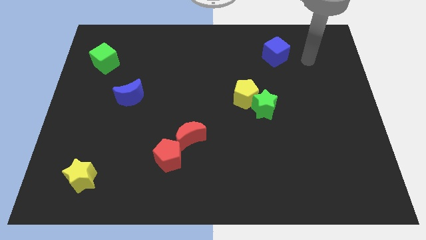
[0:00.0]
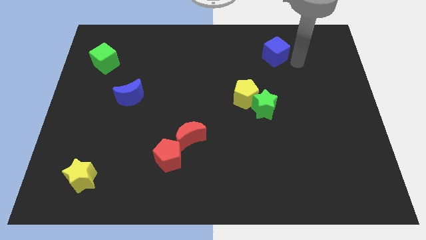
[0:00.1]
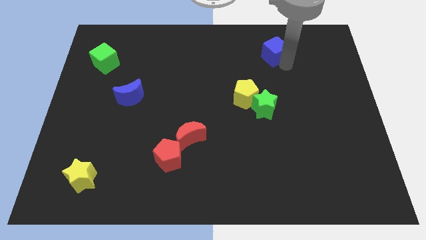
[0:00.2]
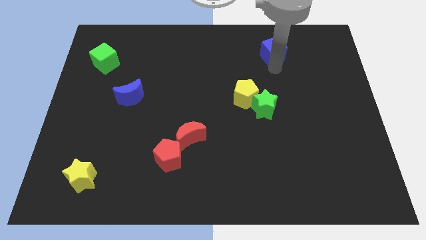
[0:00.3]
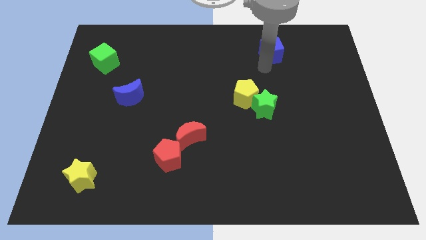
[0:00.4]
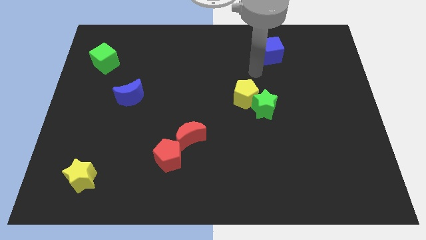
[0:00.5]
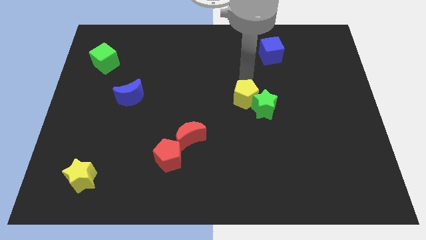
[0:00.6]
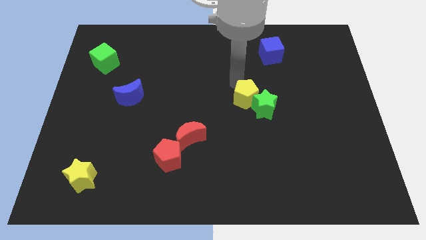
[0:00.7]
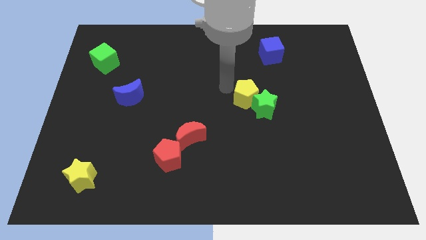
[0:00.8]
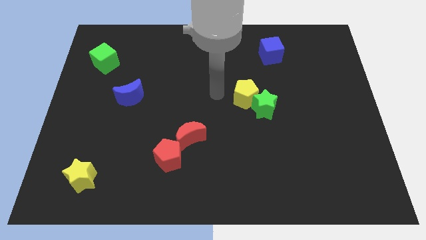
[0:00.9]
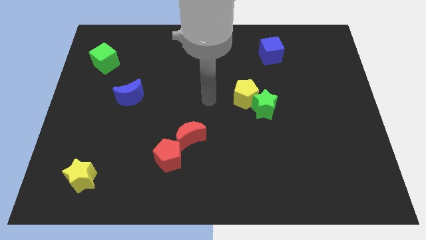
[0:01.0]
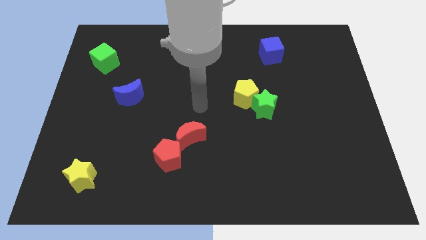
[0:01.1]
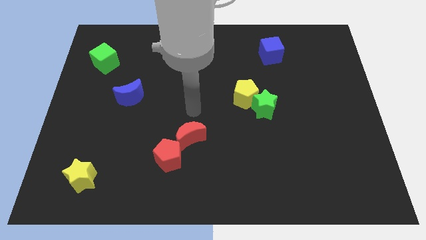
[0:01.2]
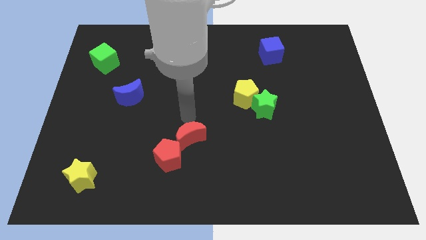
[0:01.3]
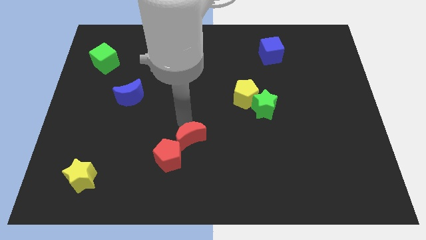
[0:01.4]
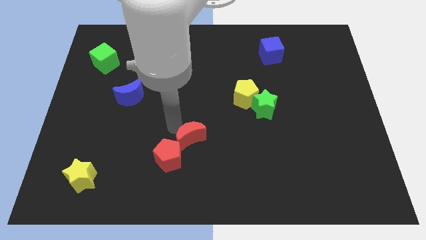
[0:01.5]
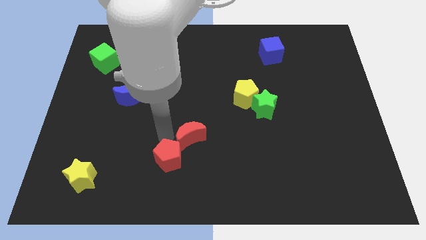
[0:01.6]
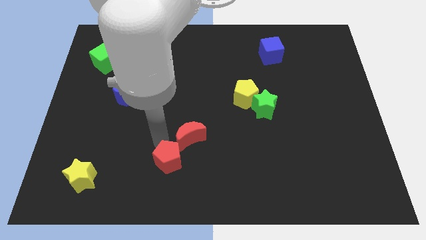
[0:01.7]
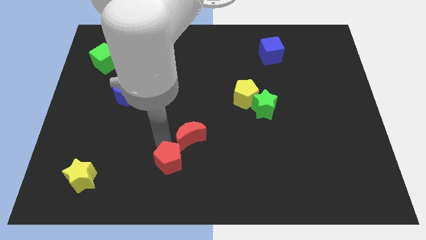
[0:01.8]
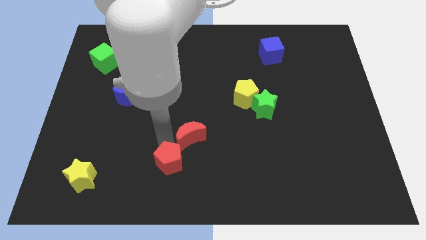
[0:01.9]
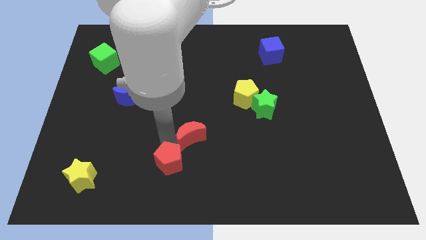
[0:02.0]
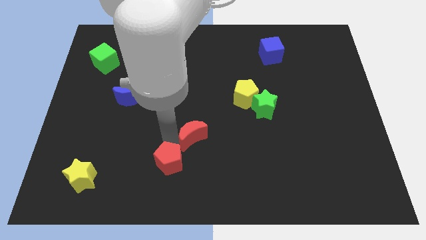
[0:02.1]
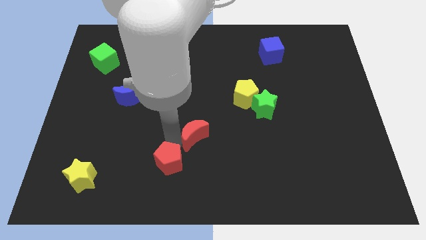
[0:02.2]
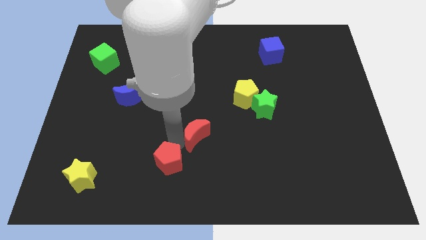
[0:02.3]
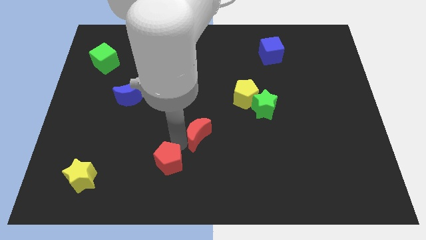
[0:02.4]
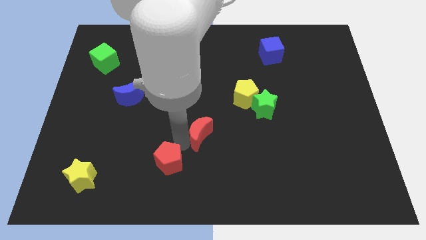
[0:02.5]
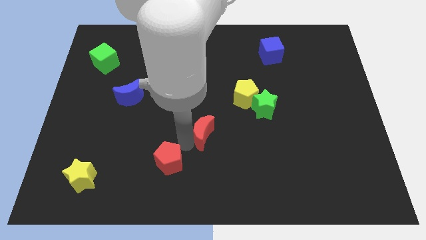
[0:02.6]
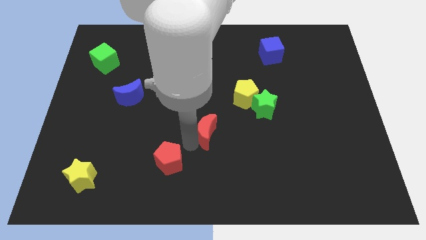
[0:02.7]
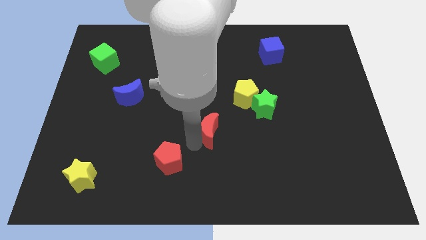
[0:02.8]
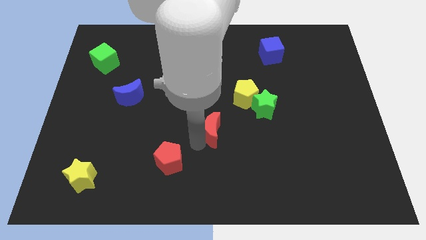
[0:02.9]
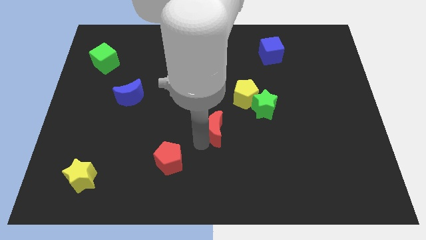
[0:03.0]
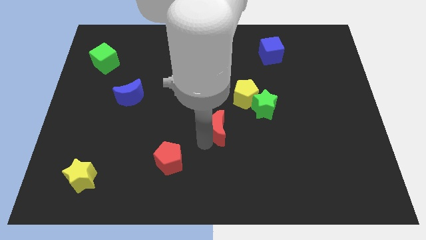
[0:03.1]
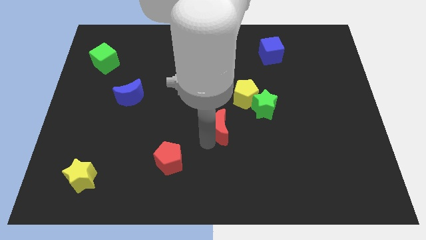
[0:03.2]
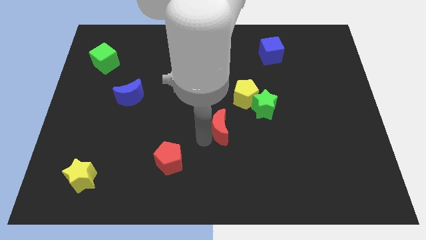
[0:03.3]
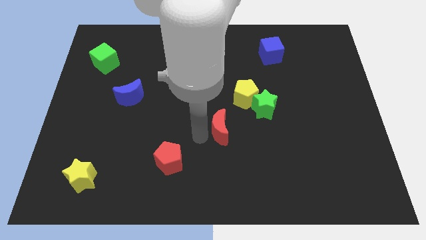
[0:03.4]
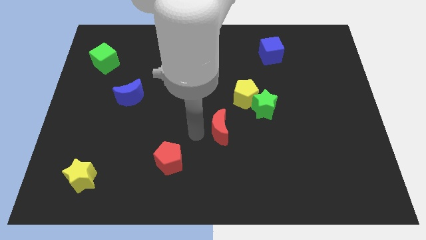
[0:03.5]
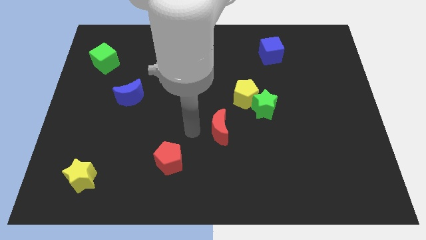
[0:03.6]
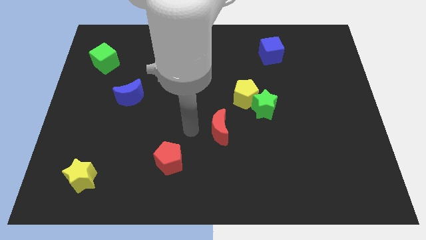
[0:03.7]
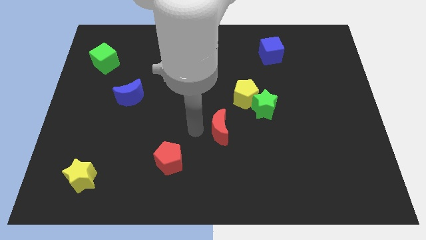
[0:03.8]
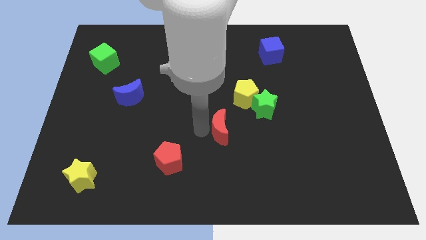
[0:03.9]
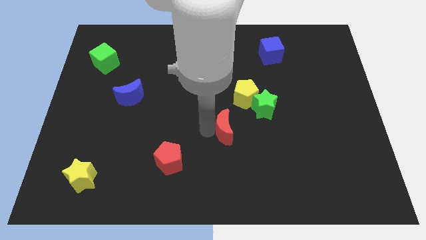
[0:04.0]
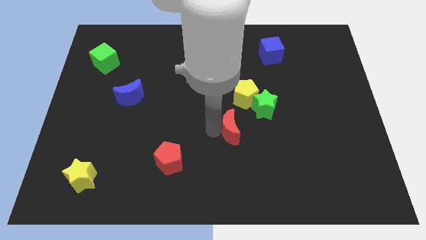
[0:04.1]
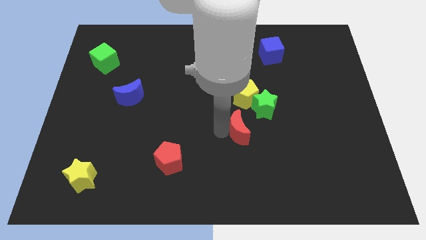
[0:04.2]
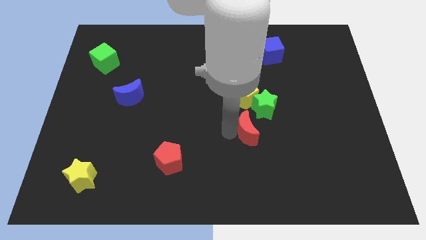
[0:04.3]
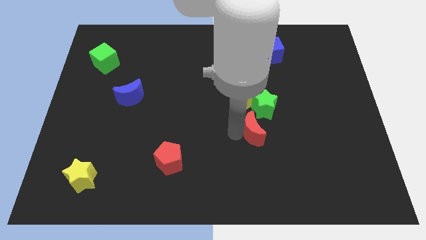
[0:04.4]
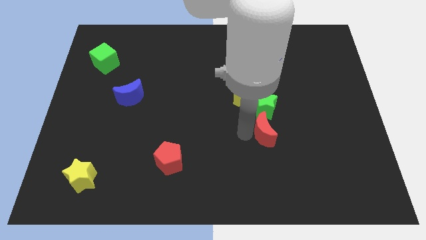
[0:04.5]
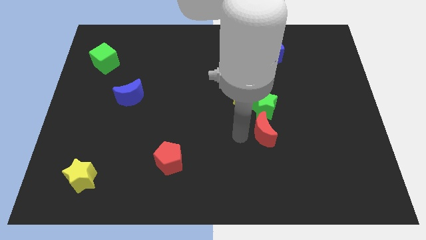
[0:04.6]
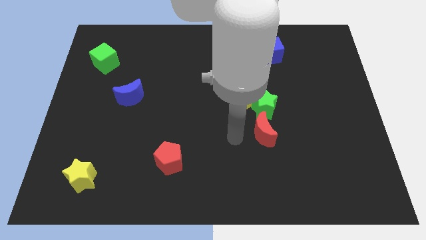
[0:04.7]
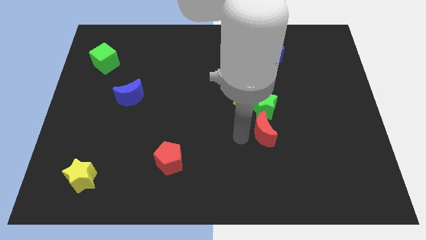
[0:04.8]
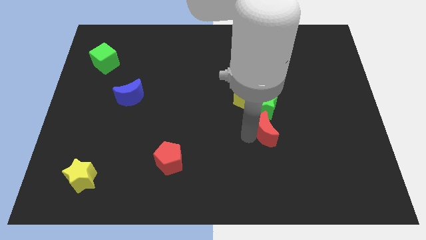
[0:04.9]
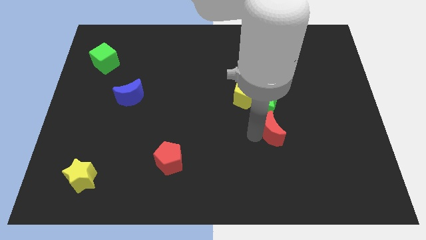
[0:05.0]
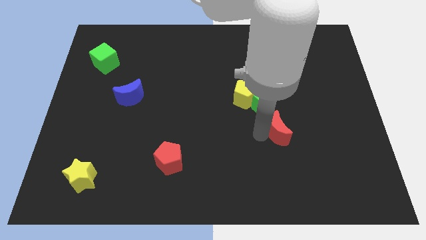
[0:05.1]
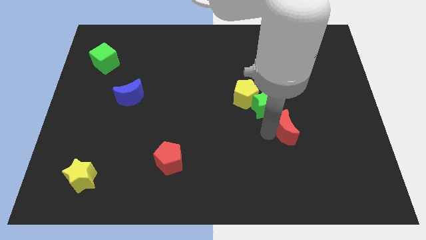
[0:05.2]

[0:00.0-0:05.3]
push the red moon right

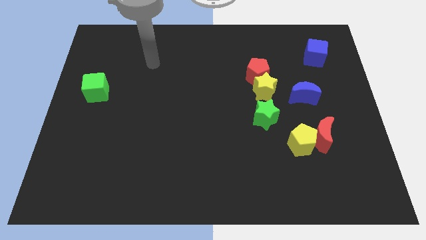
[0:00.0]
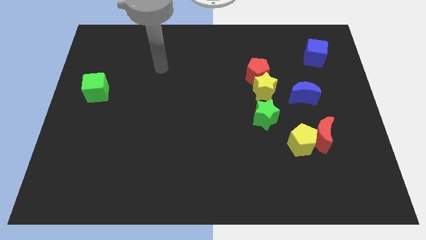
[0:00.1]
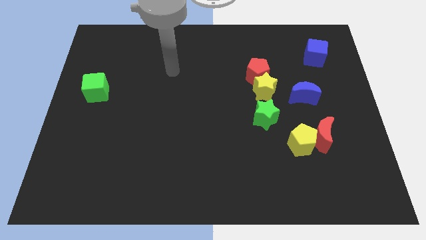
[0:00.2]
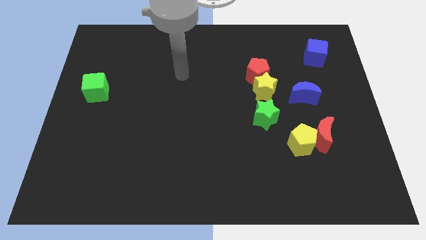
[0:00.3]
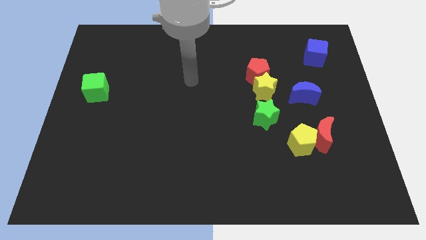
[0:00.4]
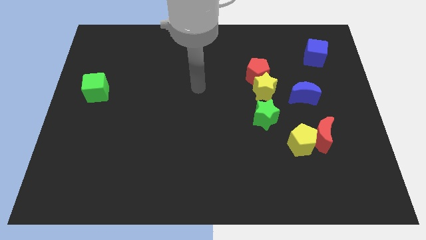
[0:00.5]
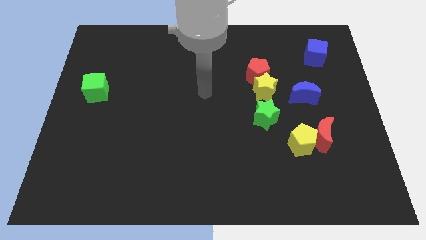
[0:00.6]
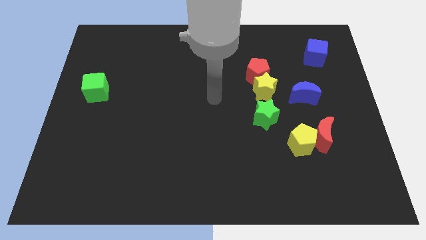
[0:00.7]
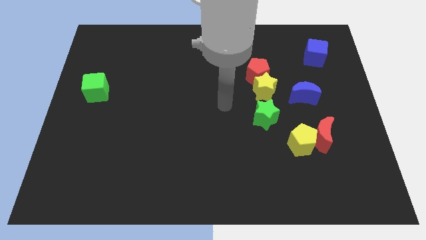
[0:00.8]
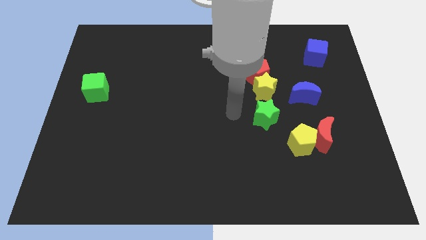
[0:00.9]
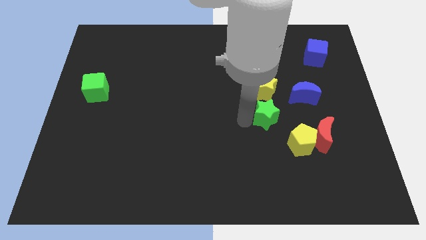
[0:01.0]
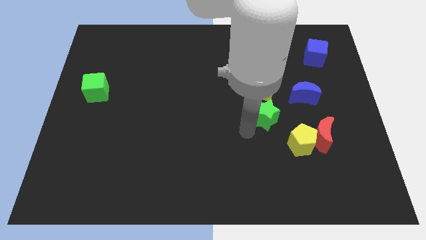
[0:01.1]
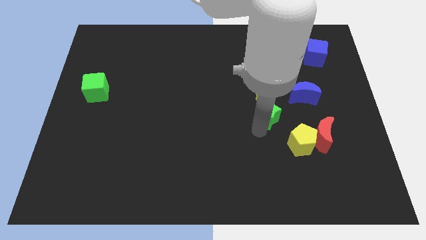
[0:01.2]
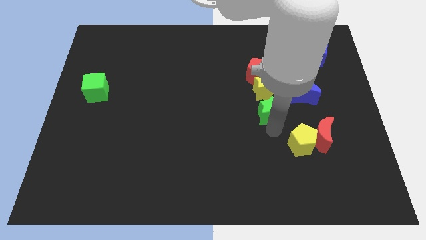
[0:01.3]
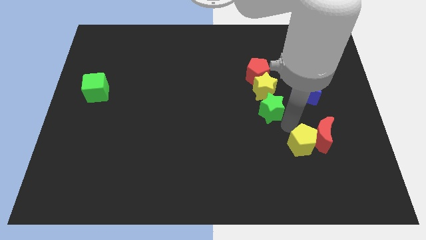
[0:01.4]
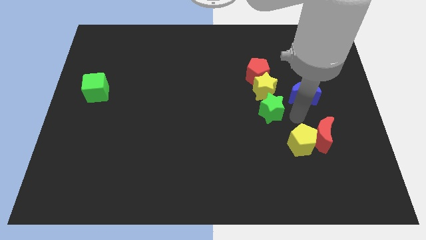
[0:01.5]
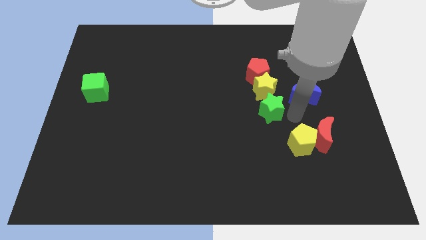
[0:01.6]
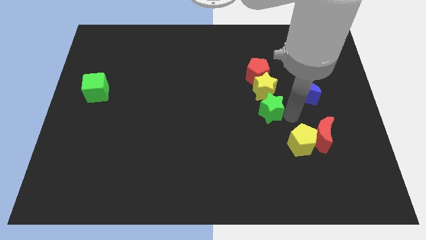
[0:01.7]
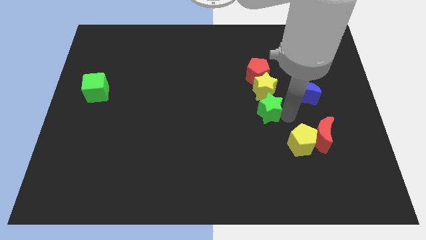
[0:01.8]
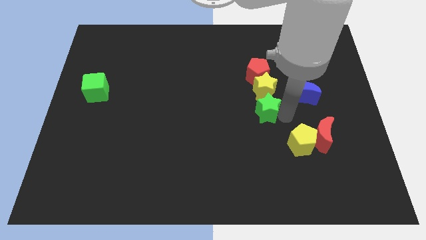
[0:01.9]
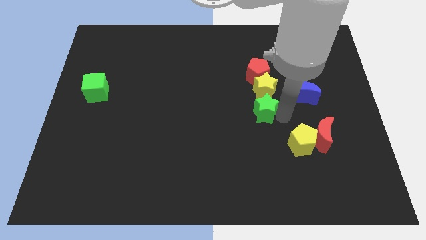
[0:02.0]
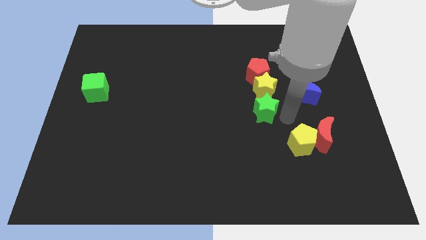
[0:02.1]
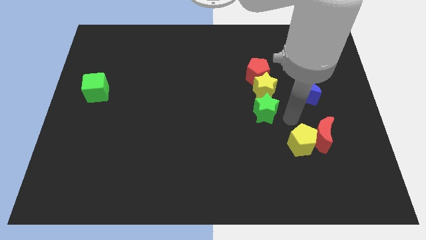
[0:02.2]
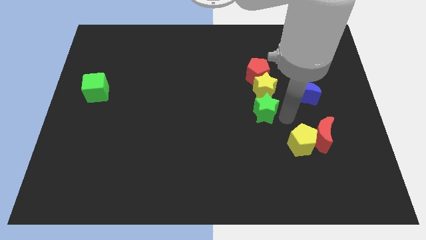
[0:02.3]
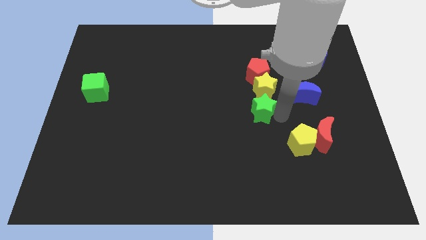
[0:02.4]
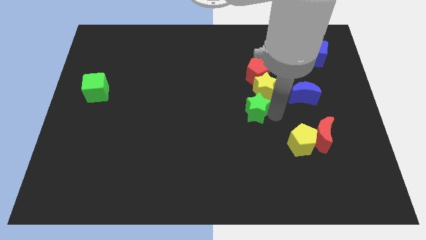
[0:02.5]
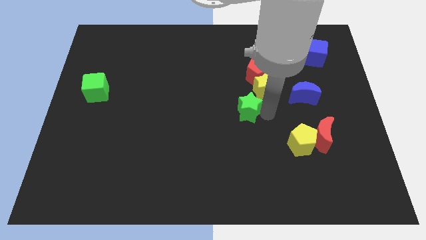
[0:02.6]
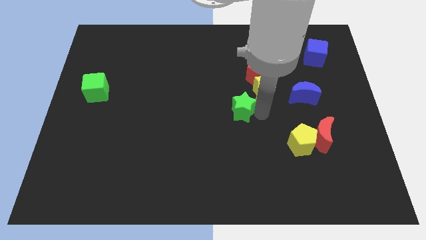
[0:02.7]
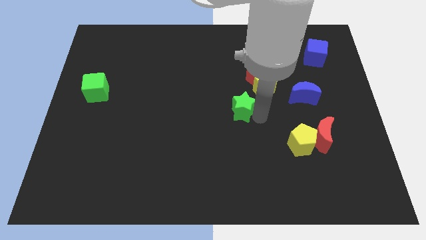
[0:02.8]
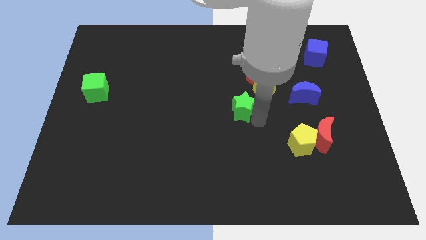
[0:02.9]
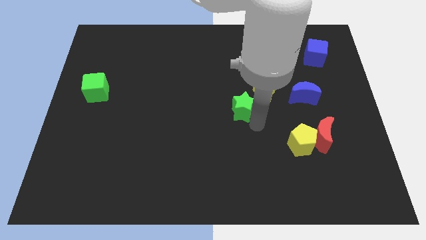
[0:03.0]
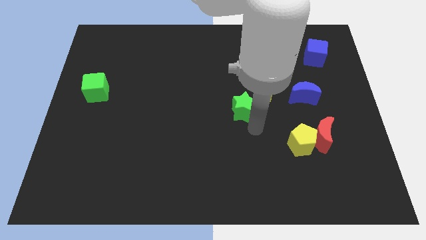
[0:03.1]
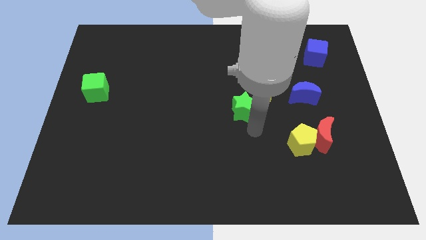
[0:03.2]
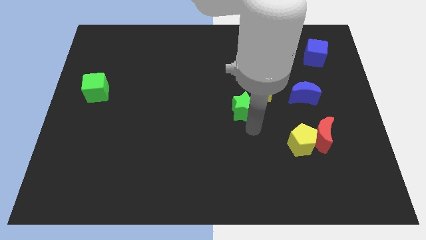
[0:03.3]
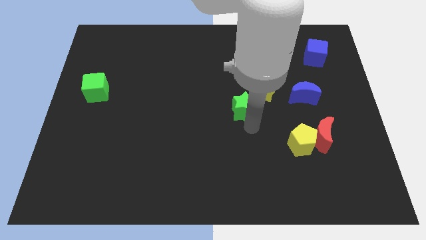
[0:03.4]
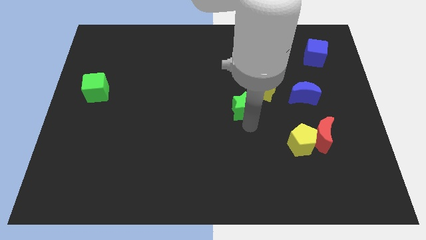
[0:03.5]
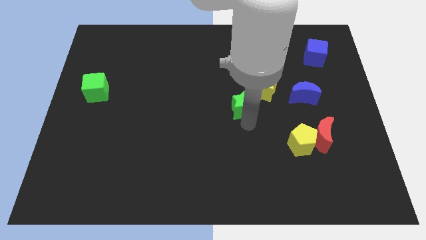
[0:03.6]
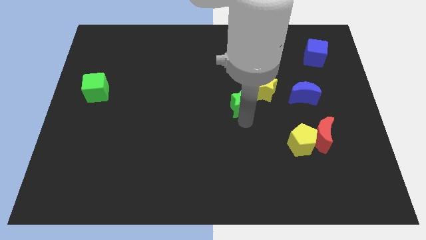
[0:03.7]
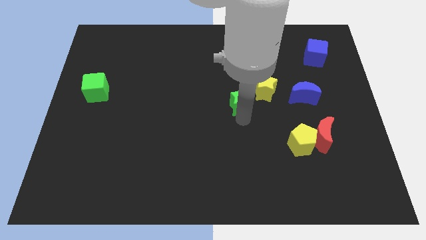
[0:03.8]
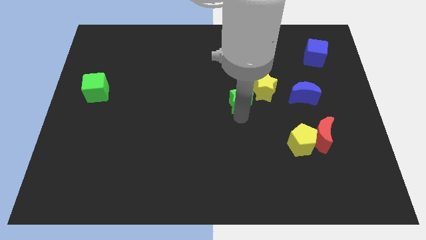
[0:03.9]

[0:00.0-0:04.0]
slightly slide the green star diagonally up and to the left
